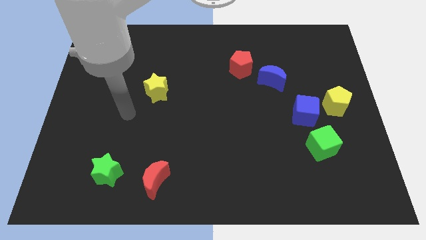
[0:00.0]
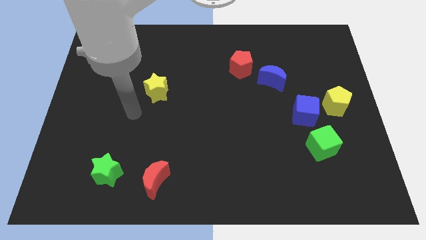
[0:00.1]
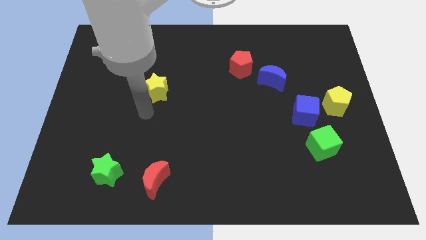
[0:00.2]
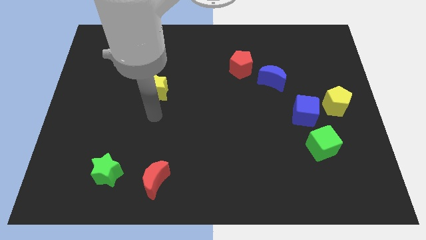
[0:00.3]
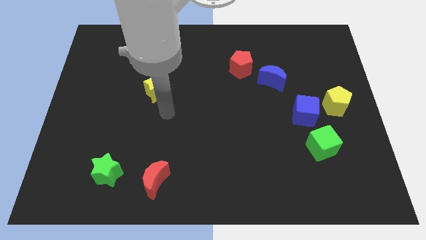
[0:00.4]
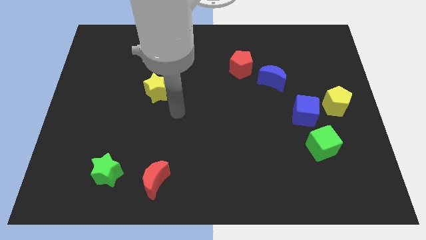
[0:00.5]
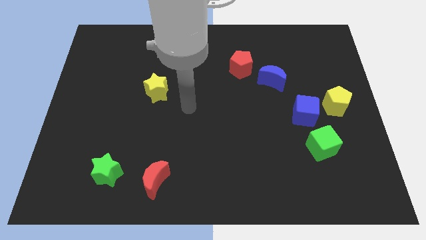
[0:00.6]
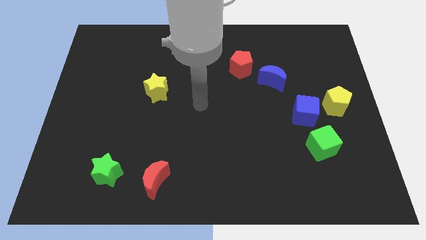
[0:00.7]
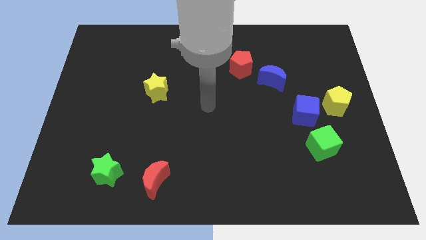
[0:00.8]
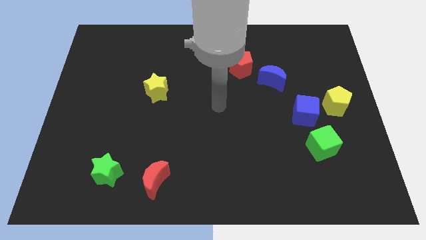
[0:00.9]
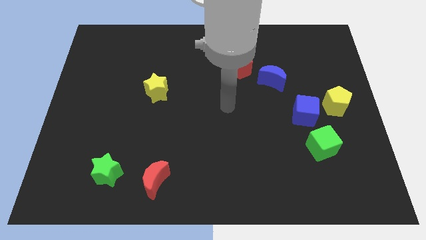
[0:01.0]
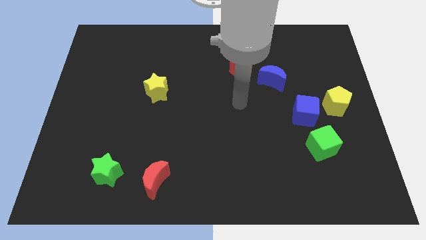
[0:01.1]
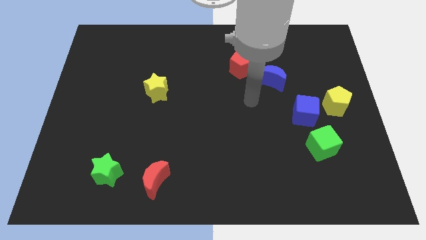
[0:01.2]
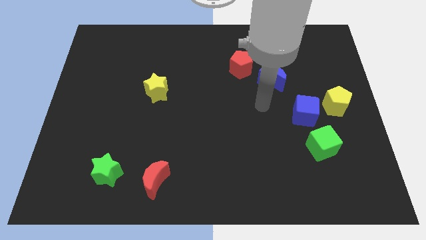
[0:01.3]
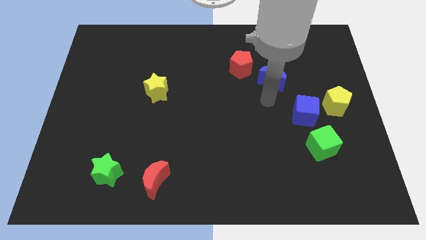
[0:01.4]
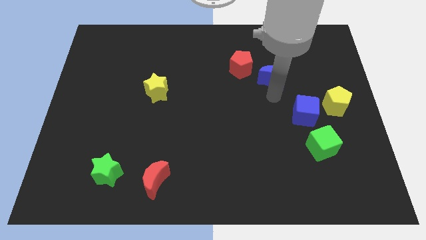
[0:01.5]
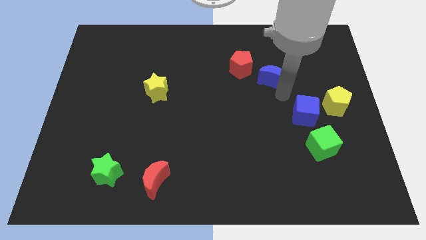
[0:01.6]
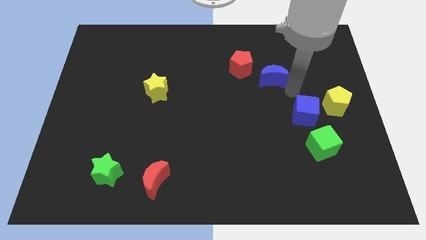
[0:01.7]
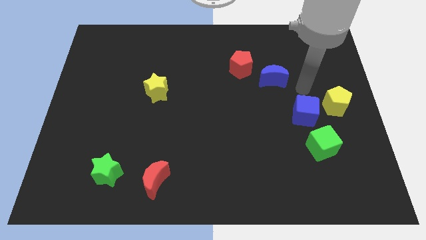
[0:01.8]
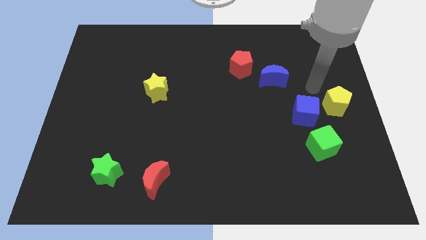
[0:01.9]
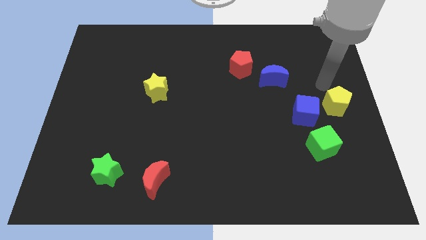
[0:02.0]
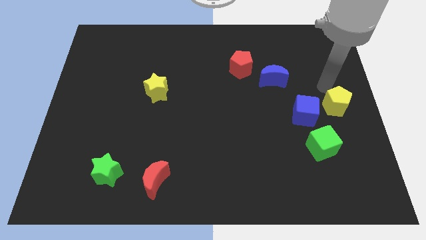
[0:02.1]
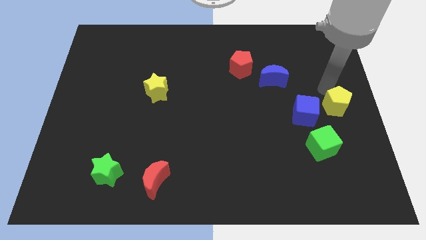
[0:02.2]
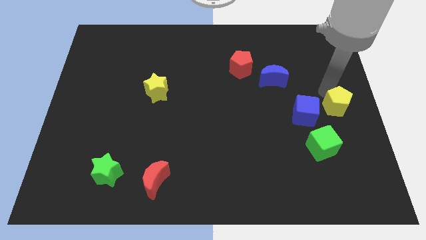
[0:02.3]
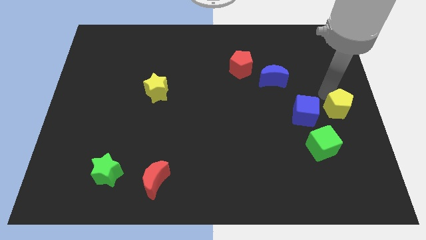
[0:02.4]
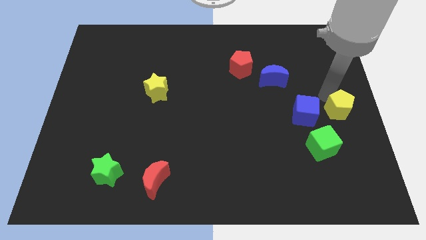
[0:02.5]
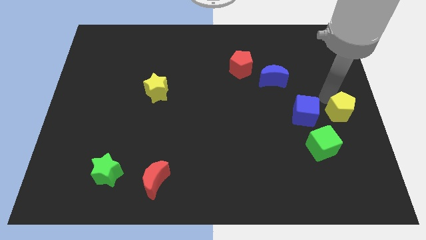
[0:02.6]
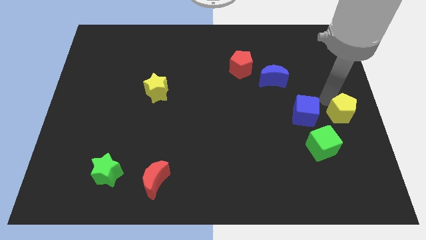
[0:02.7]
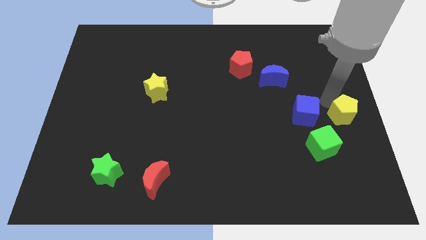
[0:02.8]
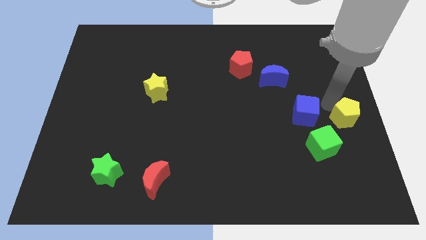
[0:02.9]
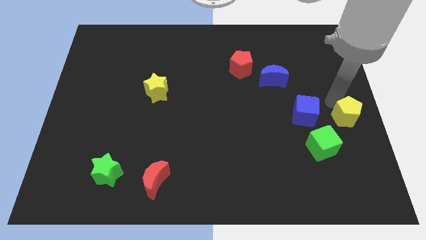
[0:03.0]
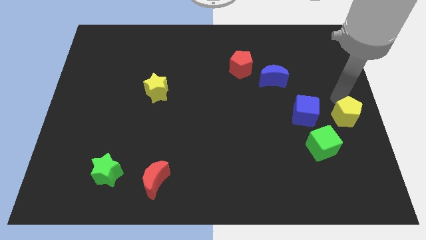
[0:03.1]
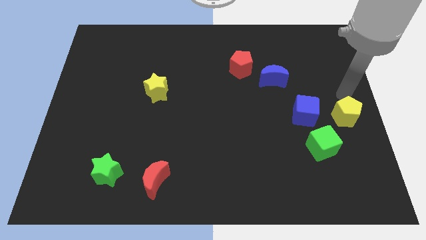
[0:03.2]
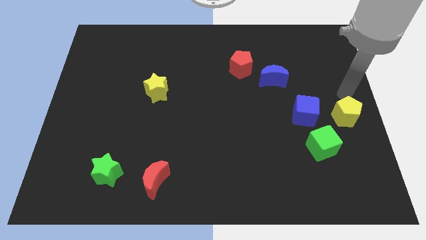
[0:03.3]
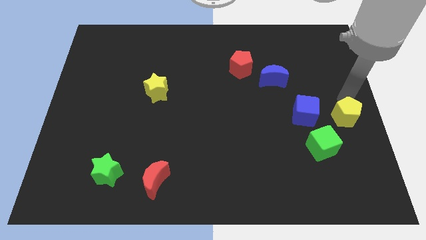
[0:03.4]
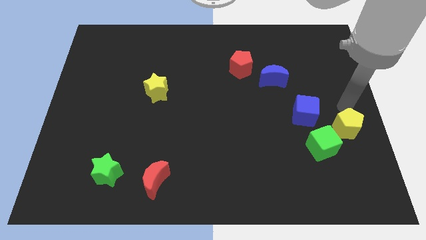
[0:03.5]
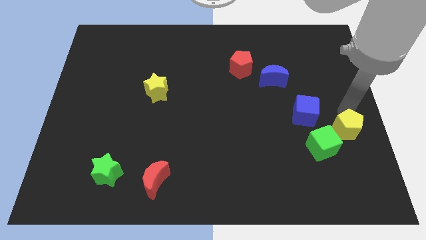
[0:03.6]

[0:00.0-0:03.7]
push the yellow pentagon downwards a little bit

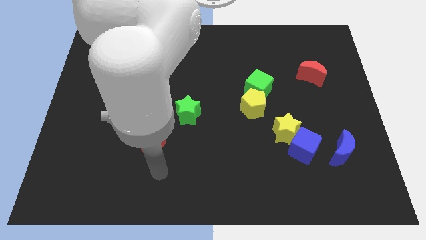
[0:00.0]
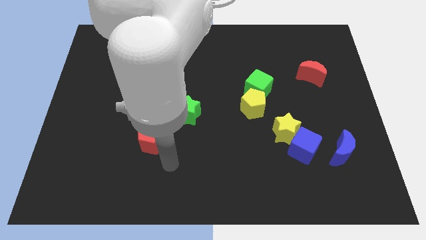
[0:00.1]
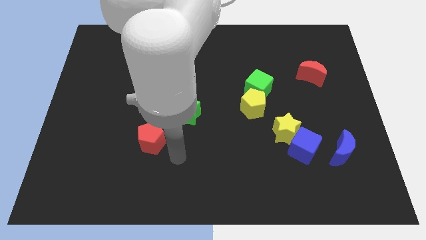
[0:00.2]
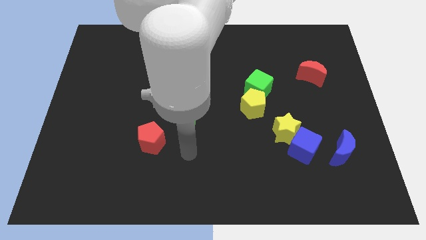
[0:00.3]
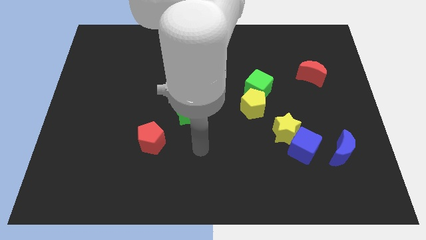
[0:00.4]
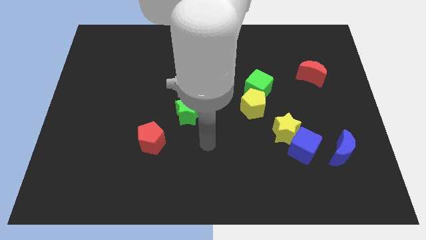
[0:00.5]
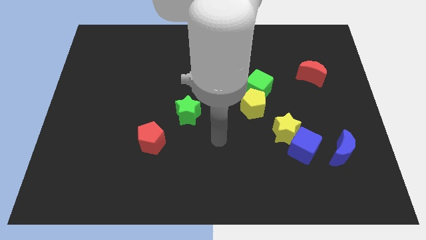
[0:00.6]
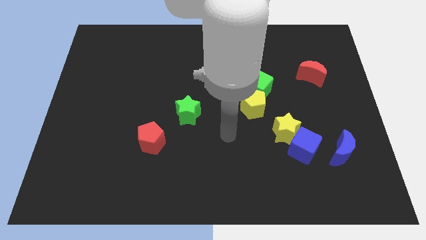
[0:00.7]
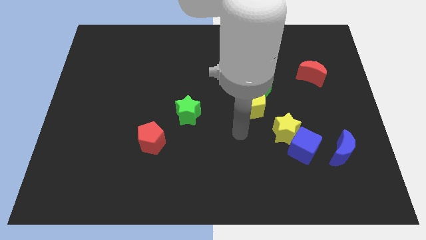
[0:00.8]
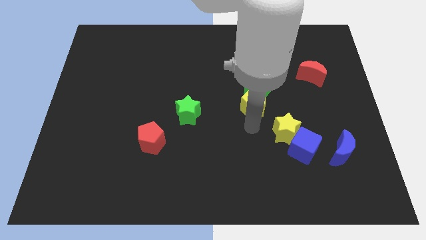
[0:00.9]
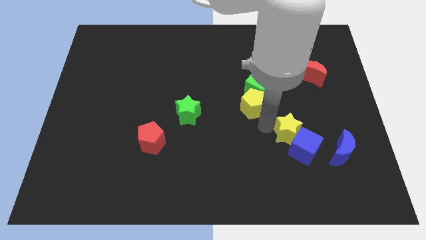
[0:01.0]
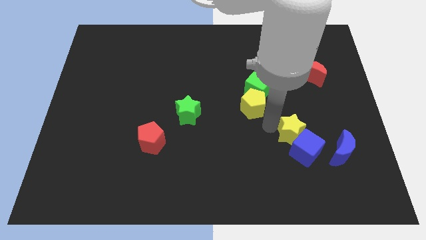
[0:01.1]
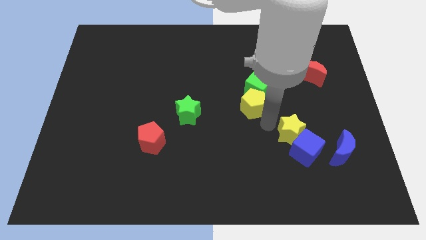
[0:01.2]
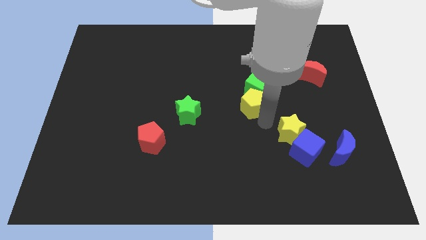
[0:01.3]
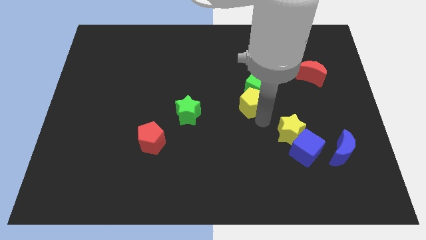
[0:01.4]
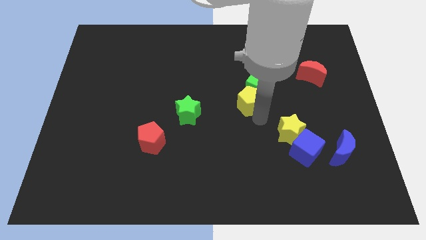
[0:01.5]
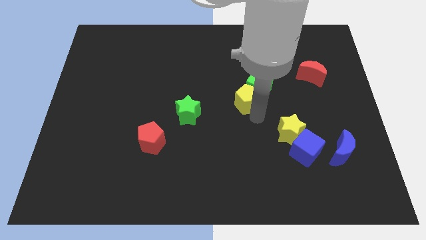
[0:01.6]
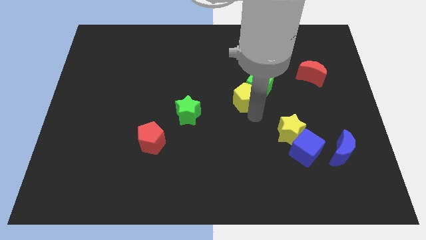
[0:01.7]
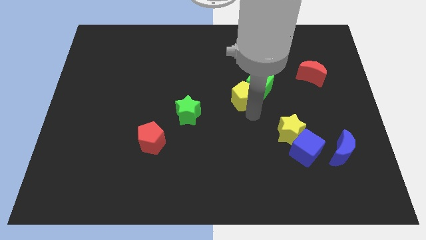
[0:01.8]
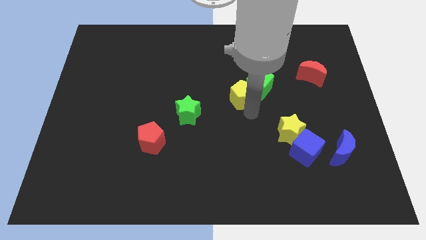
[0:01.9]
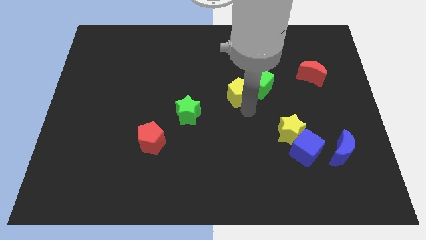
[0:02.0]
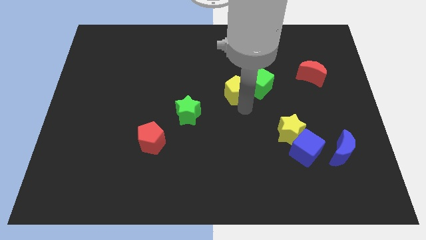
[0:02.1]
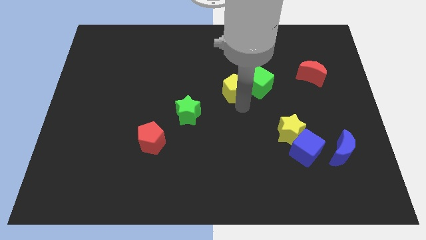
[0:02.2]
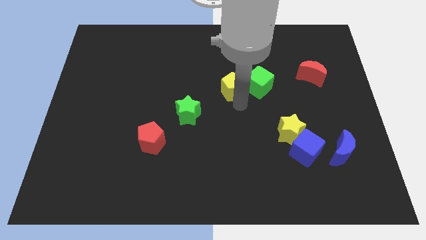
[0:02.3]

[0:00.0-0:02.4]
slightly push the yellow pentagon upwards and then left

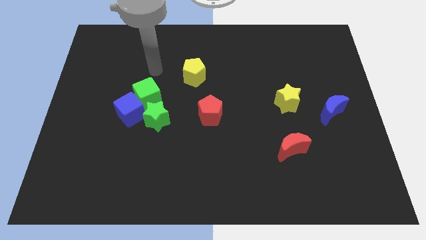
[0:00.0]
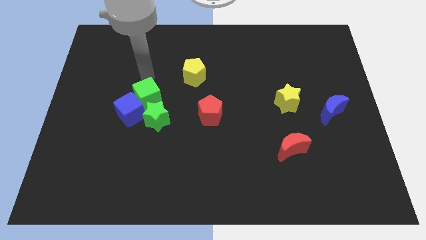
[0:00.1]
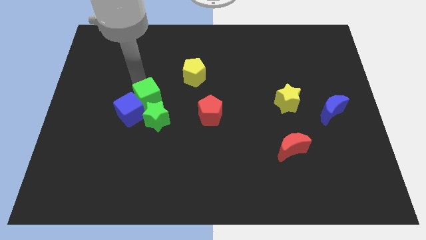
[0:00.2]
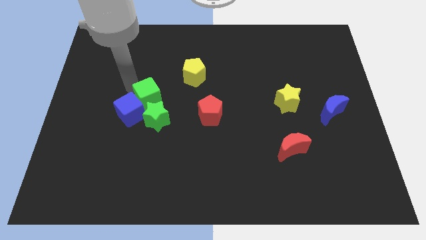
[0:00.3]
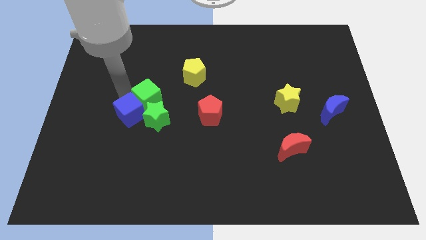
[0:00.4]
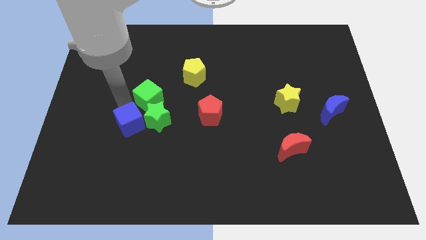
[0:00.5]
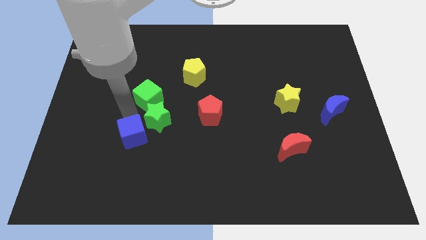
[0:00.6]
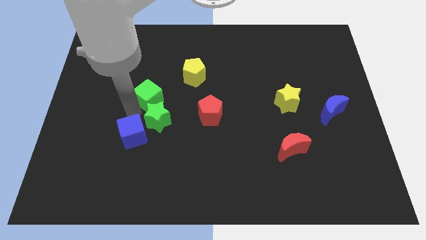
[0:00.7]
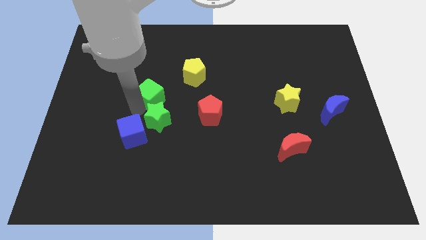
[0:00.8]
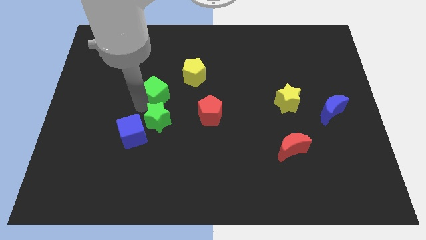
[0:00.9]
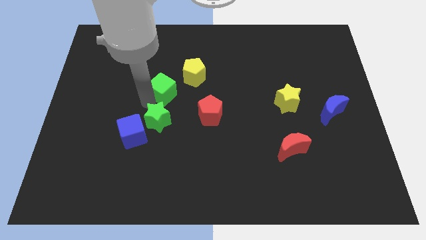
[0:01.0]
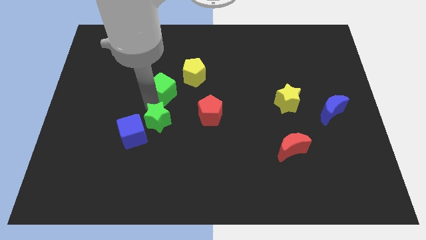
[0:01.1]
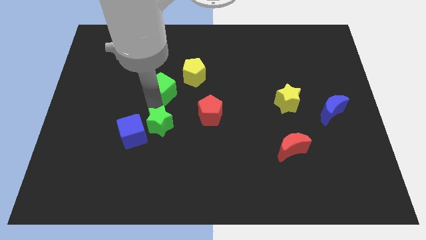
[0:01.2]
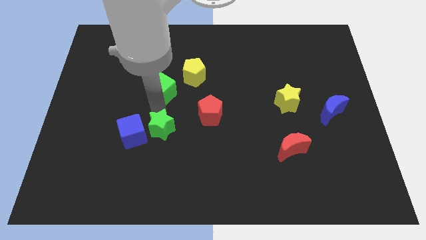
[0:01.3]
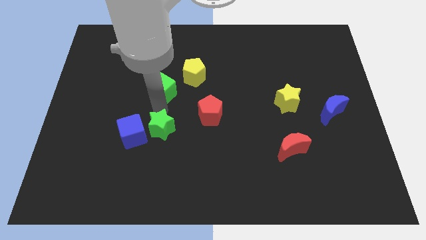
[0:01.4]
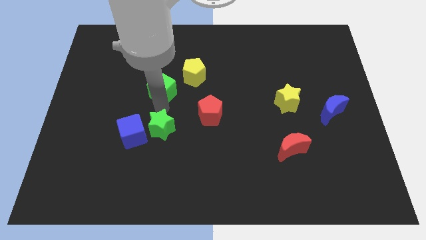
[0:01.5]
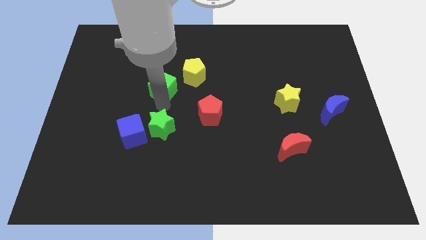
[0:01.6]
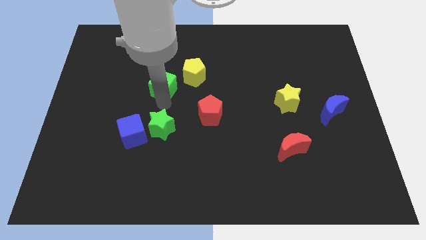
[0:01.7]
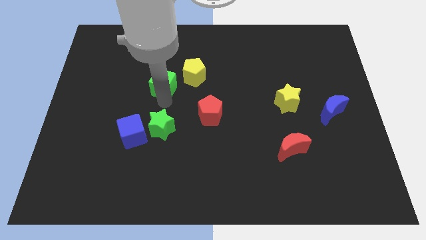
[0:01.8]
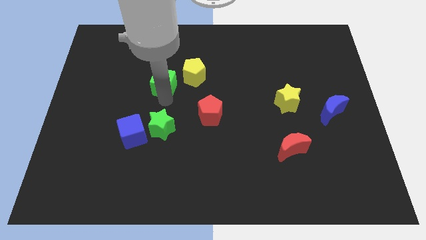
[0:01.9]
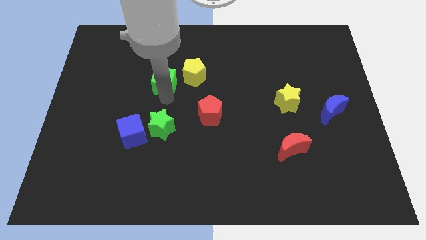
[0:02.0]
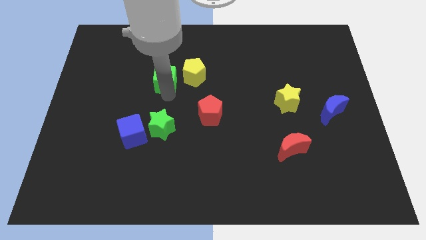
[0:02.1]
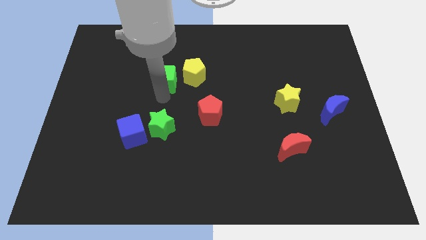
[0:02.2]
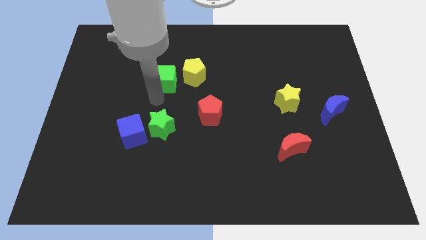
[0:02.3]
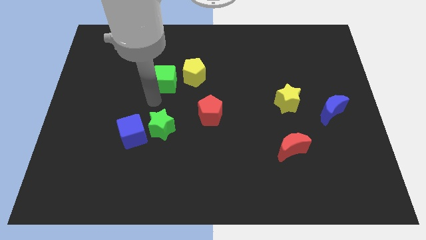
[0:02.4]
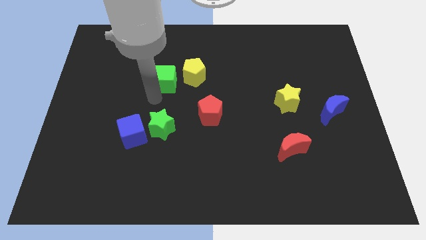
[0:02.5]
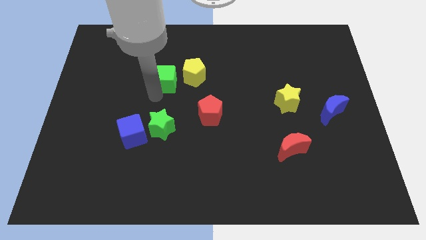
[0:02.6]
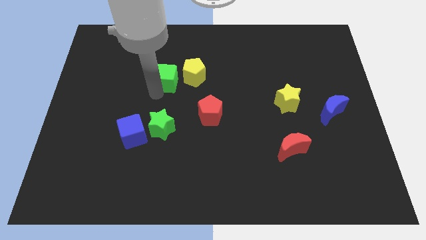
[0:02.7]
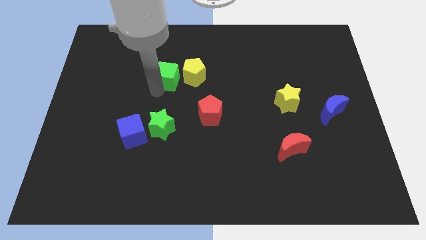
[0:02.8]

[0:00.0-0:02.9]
move the green cube a bit up and to the right
